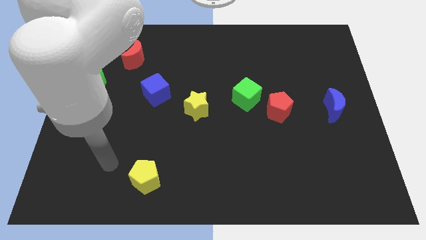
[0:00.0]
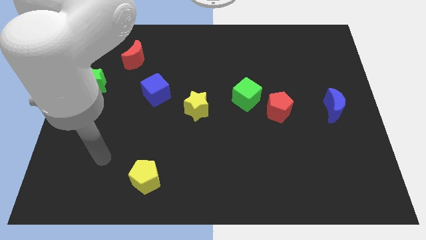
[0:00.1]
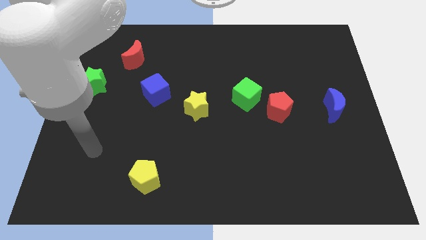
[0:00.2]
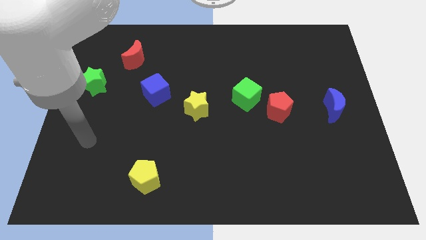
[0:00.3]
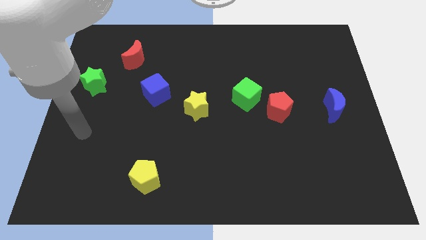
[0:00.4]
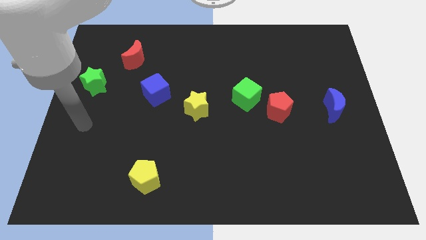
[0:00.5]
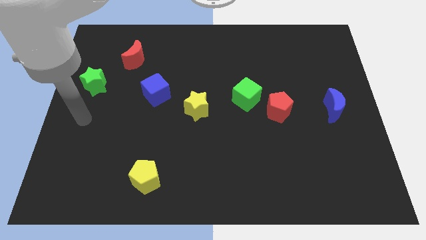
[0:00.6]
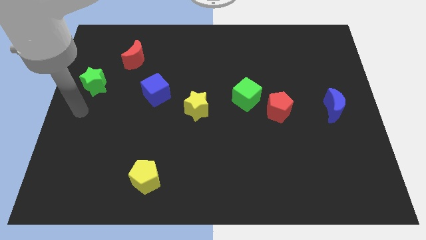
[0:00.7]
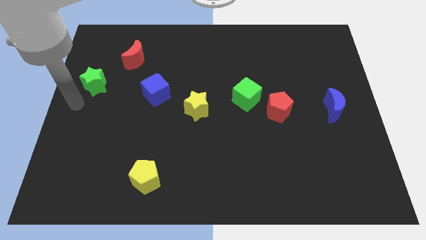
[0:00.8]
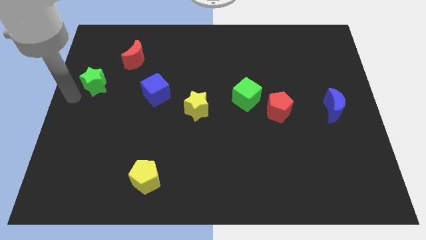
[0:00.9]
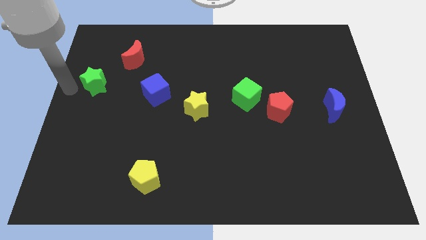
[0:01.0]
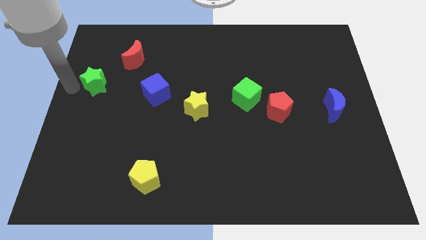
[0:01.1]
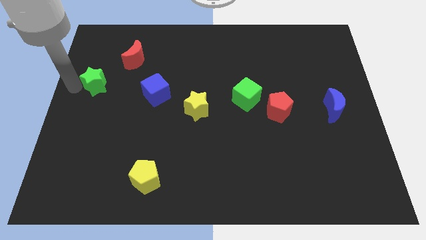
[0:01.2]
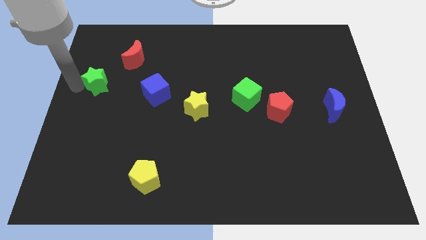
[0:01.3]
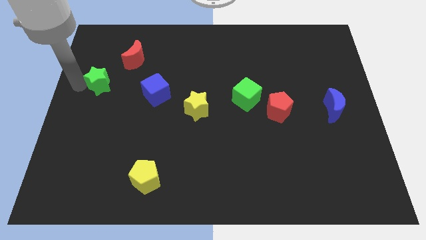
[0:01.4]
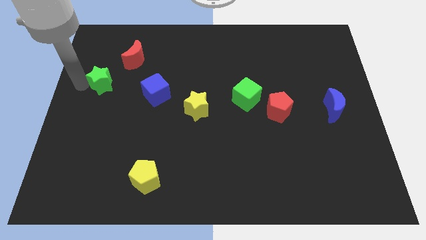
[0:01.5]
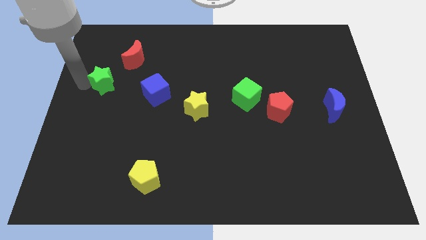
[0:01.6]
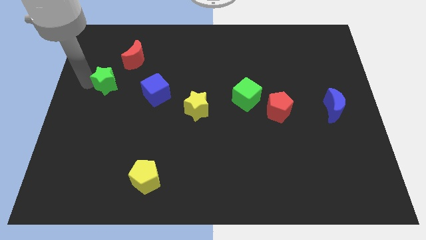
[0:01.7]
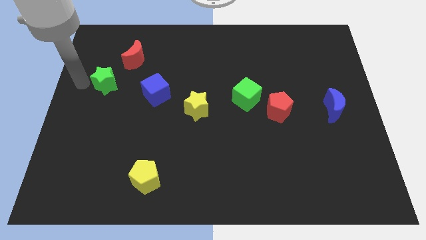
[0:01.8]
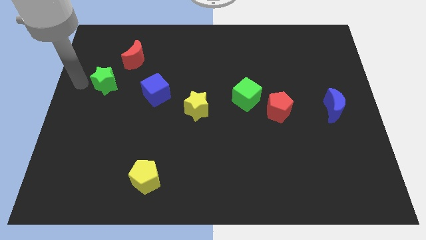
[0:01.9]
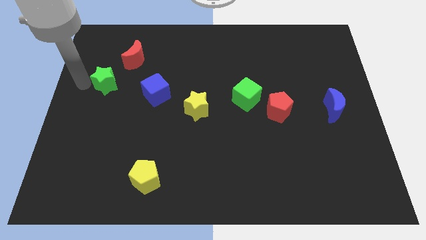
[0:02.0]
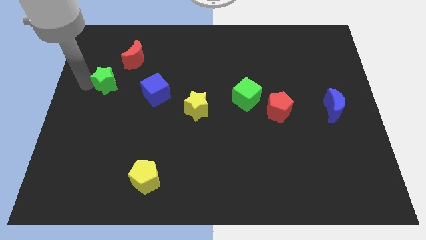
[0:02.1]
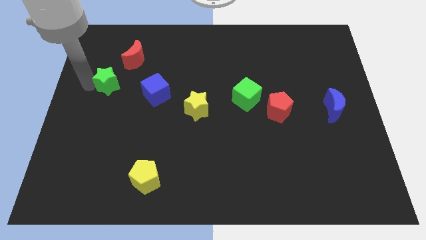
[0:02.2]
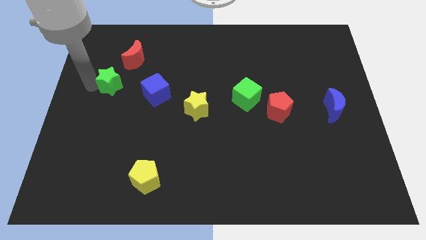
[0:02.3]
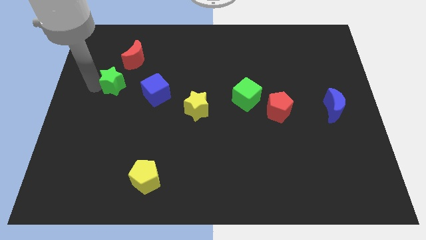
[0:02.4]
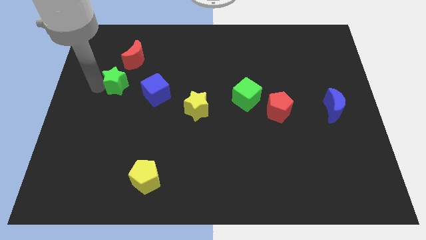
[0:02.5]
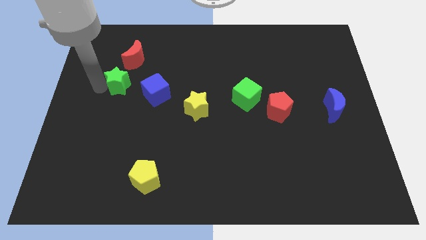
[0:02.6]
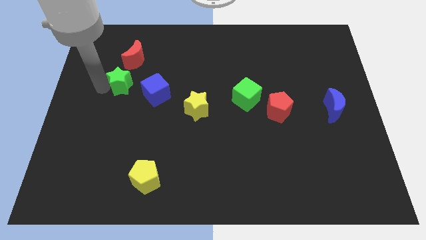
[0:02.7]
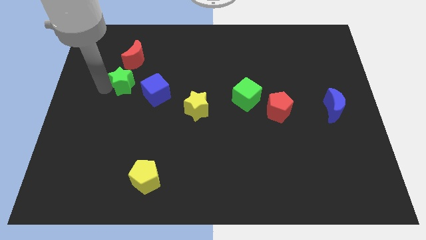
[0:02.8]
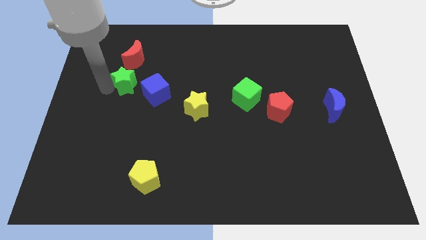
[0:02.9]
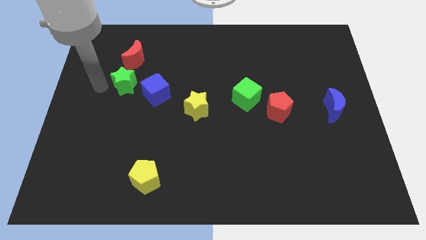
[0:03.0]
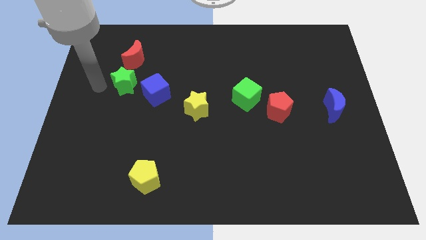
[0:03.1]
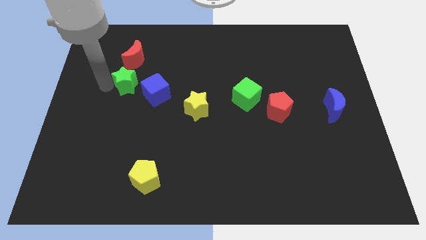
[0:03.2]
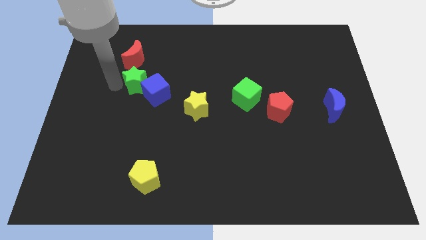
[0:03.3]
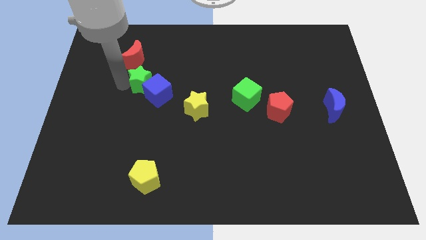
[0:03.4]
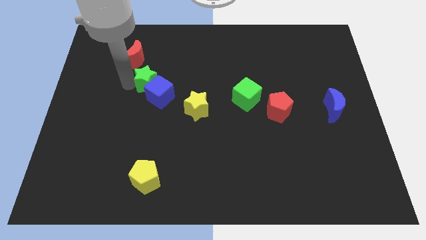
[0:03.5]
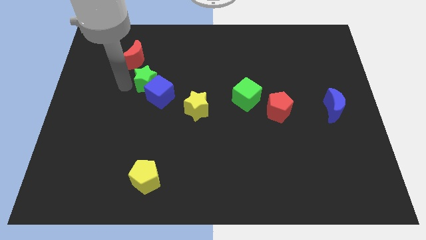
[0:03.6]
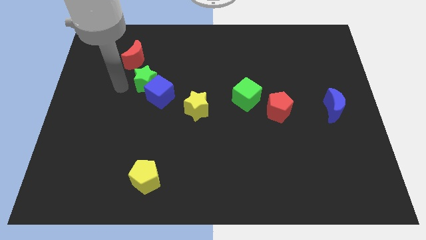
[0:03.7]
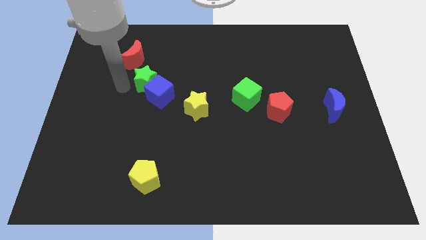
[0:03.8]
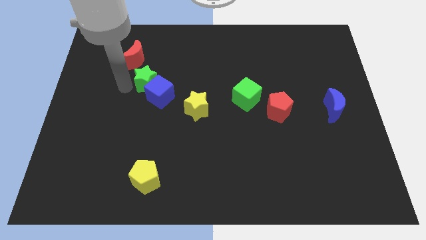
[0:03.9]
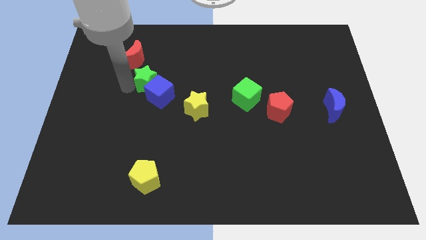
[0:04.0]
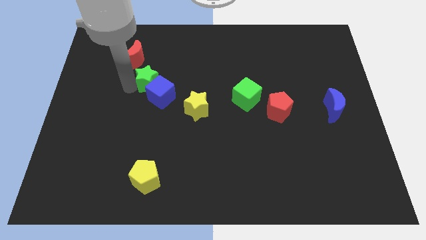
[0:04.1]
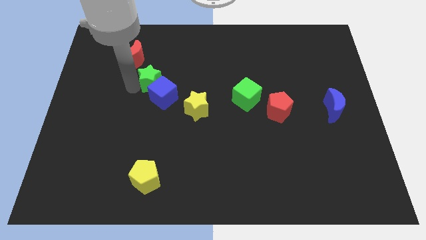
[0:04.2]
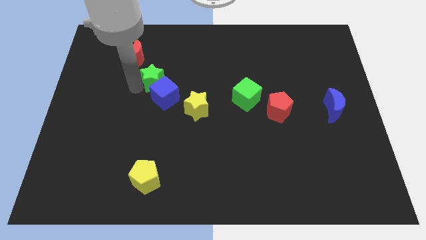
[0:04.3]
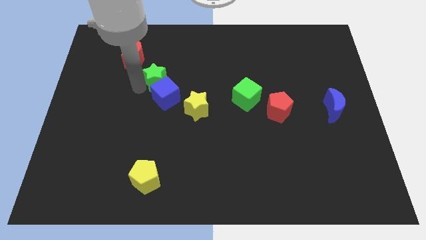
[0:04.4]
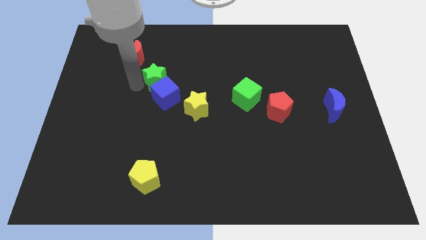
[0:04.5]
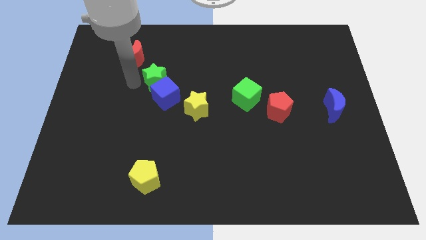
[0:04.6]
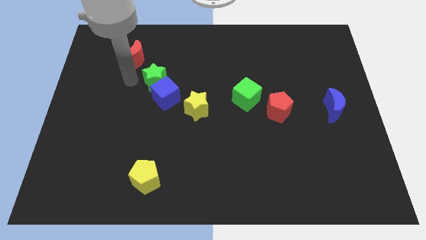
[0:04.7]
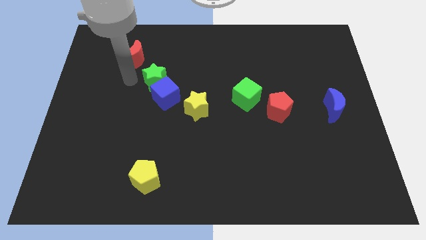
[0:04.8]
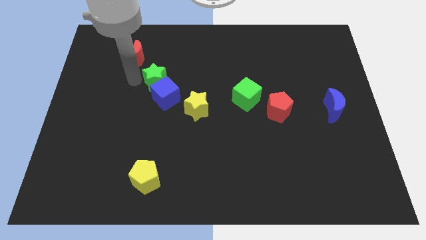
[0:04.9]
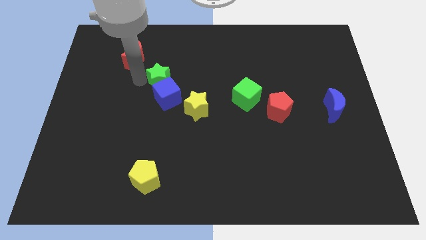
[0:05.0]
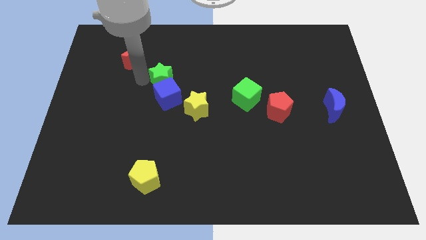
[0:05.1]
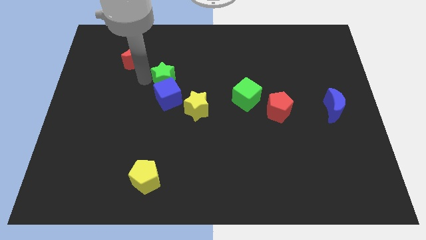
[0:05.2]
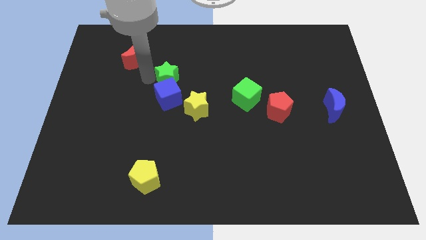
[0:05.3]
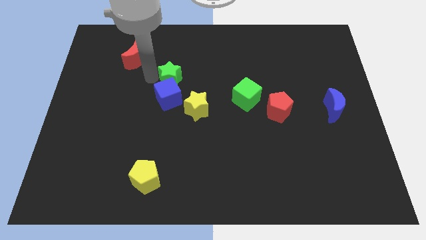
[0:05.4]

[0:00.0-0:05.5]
move the green star to the middle of the board
